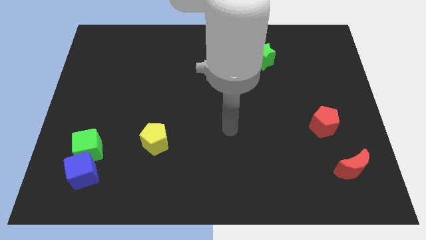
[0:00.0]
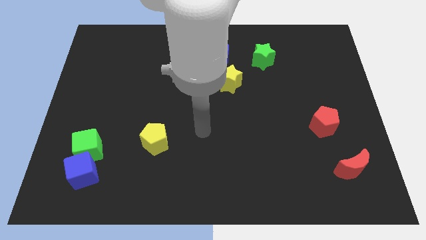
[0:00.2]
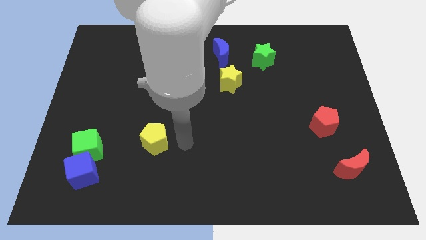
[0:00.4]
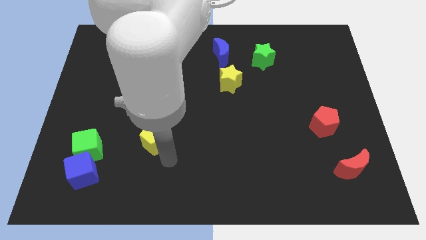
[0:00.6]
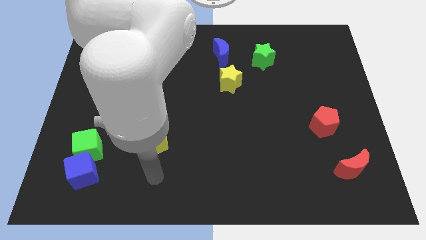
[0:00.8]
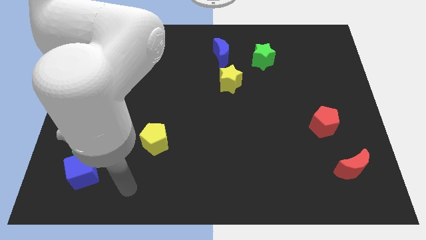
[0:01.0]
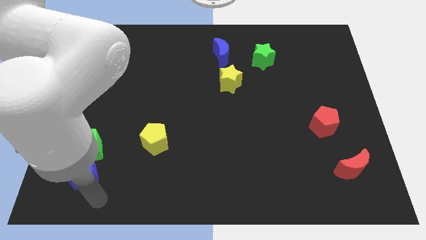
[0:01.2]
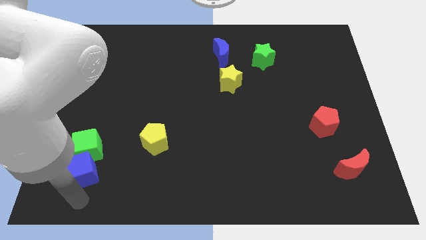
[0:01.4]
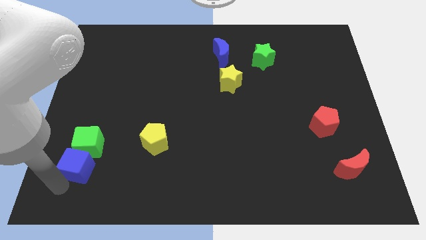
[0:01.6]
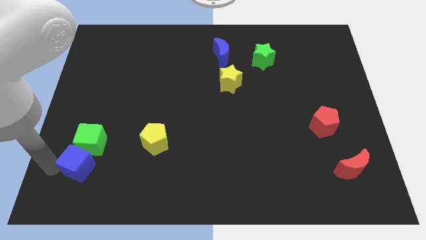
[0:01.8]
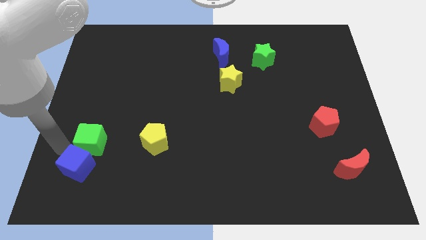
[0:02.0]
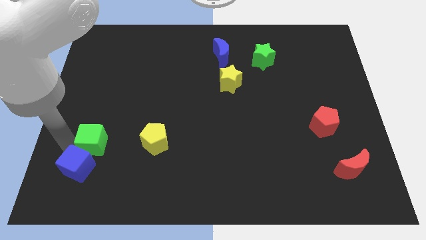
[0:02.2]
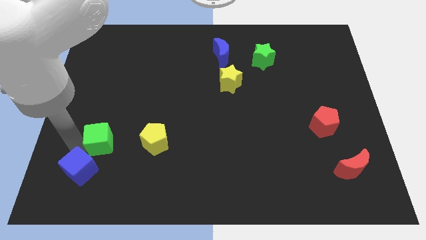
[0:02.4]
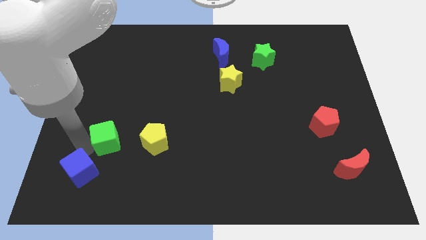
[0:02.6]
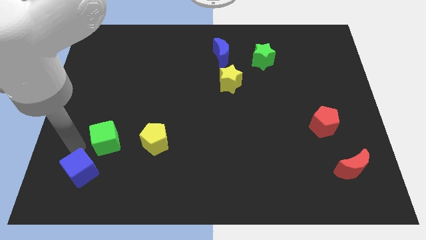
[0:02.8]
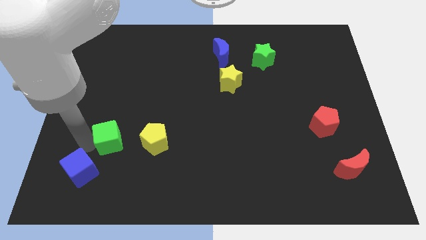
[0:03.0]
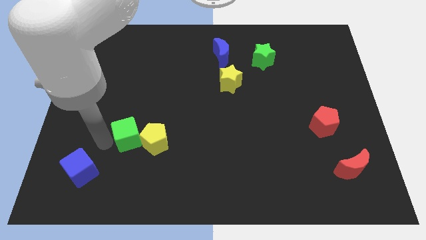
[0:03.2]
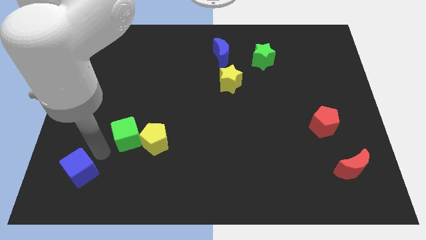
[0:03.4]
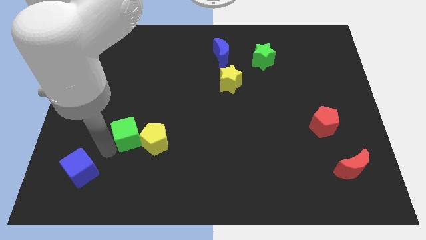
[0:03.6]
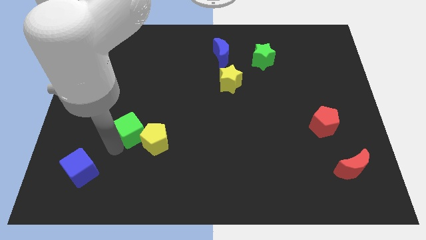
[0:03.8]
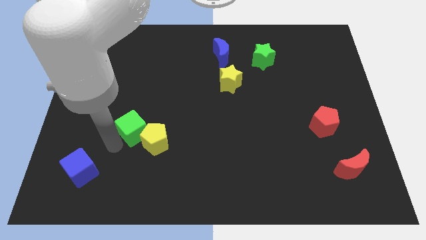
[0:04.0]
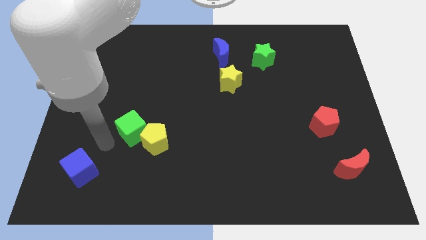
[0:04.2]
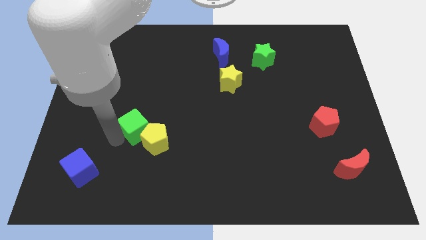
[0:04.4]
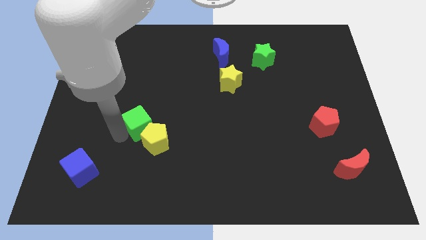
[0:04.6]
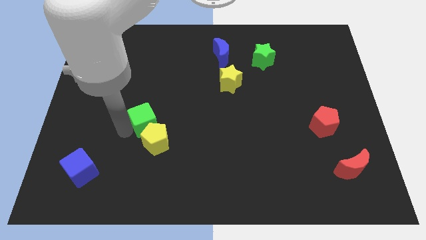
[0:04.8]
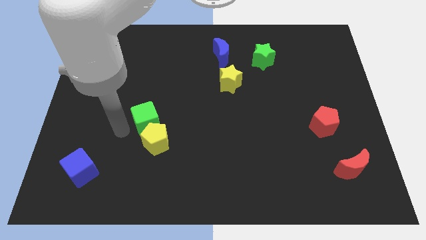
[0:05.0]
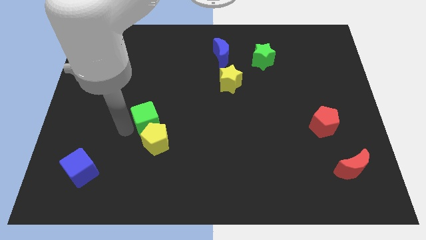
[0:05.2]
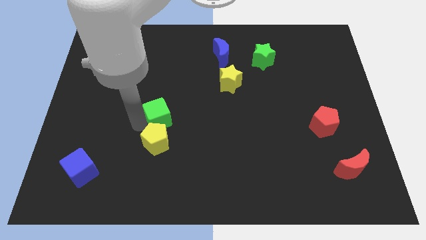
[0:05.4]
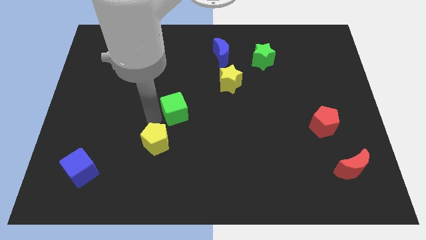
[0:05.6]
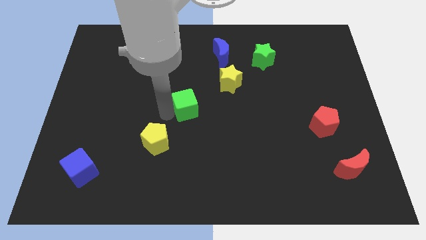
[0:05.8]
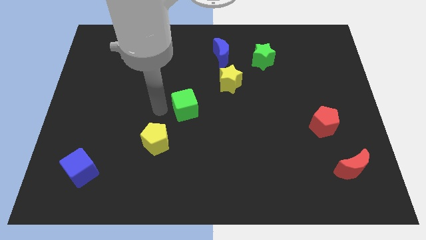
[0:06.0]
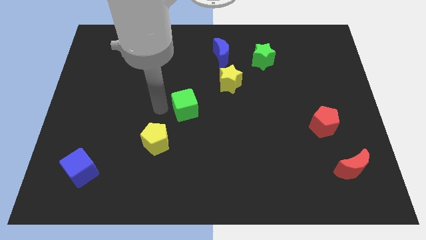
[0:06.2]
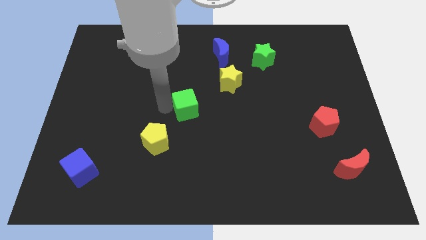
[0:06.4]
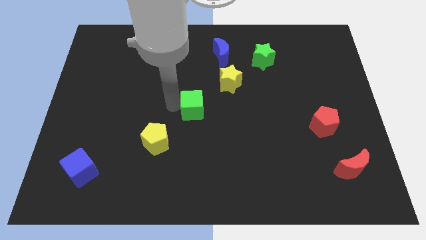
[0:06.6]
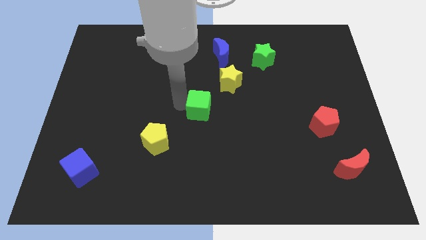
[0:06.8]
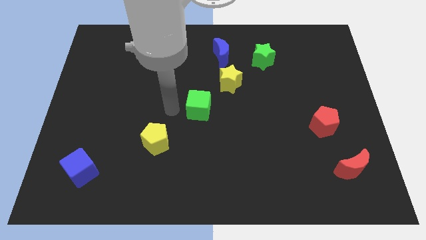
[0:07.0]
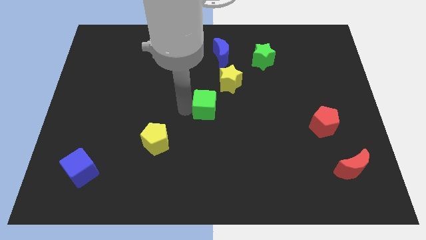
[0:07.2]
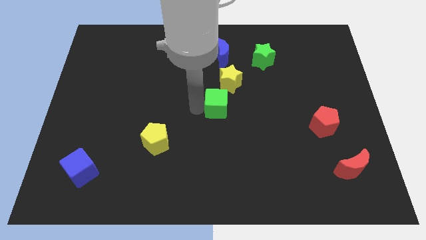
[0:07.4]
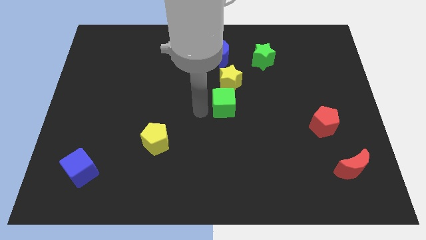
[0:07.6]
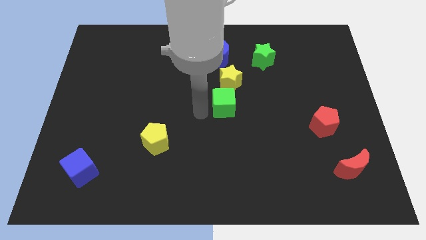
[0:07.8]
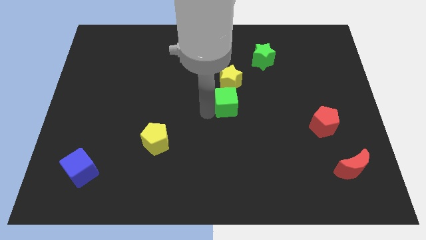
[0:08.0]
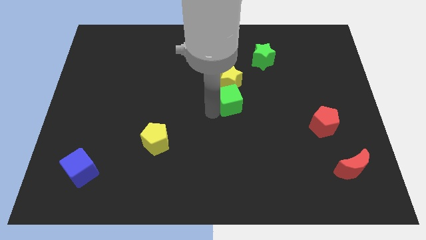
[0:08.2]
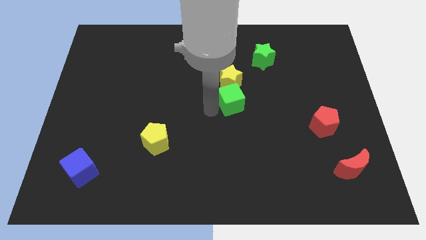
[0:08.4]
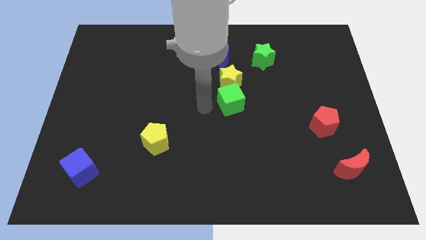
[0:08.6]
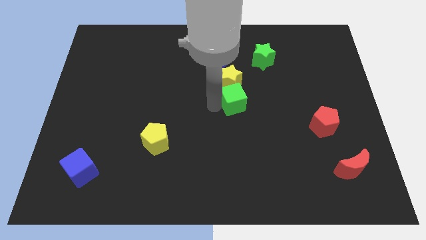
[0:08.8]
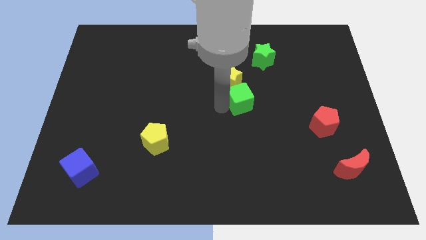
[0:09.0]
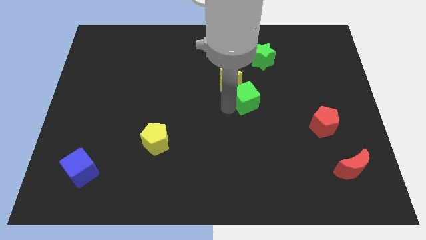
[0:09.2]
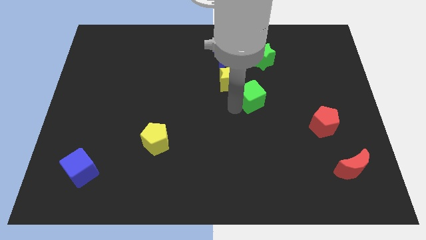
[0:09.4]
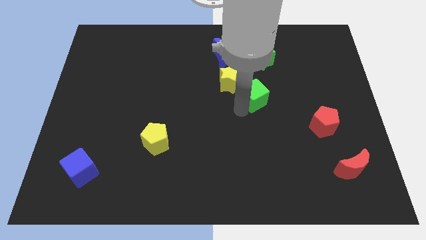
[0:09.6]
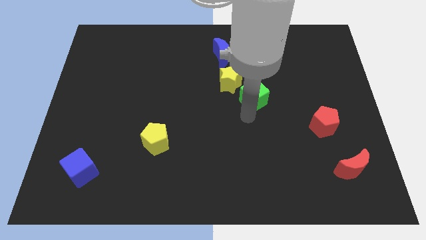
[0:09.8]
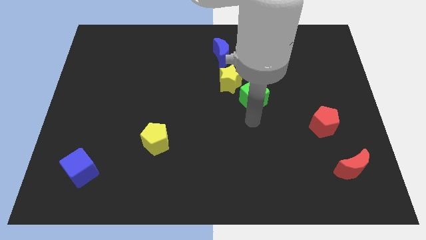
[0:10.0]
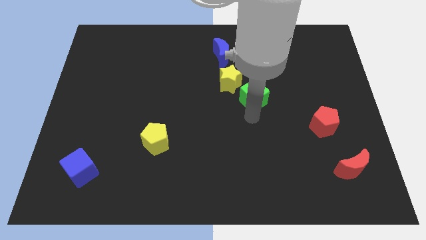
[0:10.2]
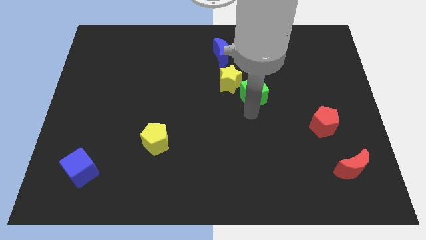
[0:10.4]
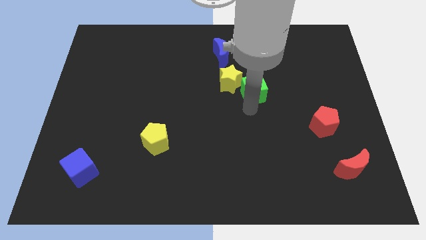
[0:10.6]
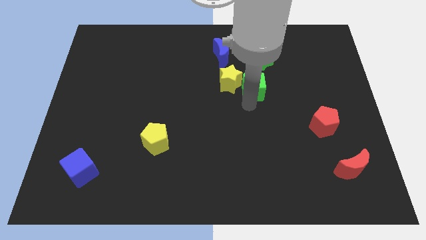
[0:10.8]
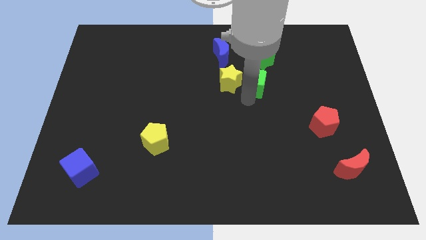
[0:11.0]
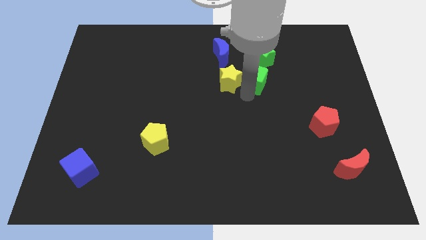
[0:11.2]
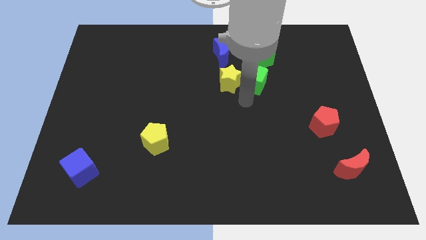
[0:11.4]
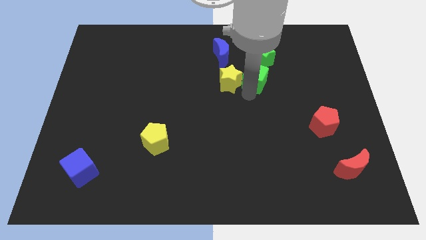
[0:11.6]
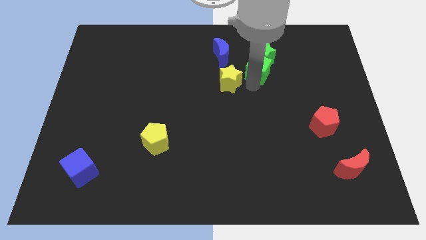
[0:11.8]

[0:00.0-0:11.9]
push the green cube towards the green star

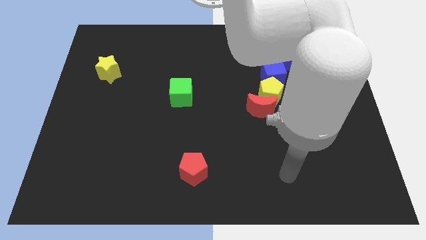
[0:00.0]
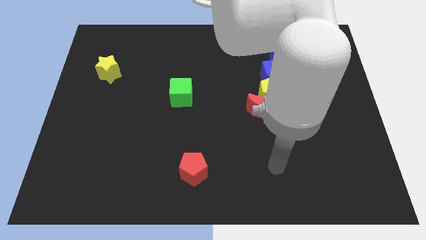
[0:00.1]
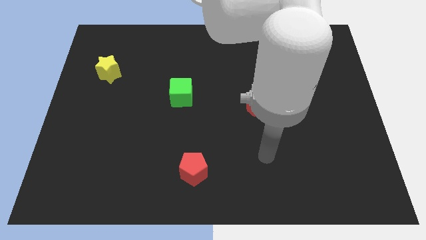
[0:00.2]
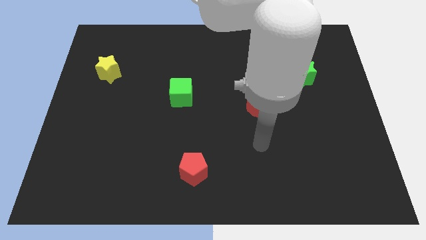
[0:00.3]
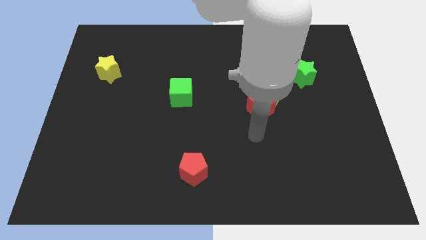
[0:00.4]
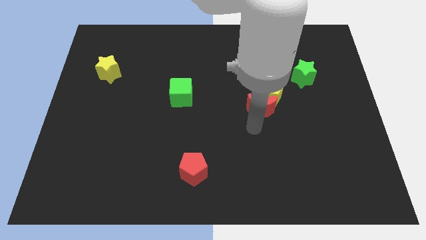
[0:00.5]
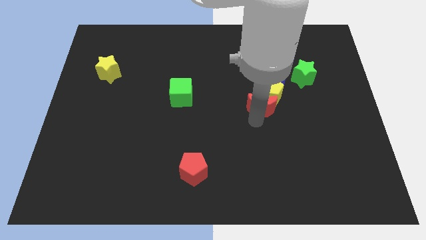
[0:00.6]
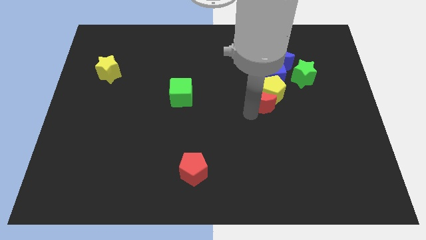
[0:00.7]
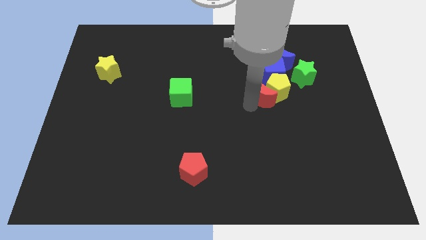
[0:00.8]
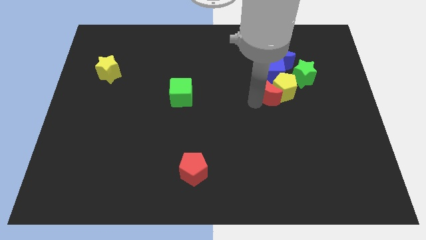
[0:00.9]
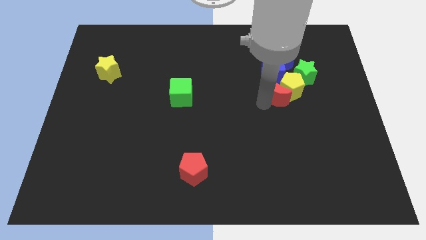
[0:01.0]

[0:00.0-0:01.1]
move the yellow pentagon to the green star

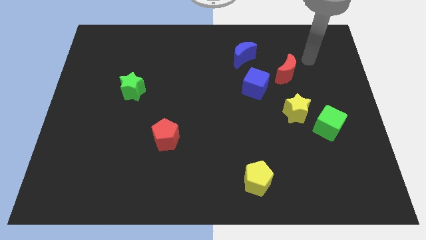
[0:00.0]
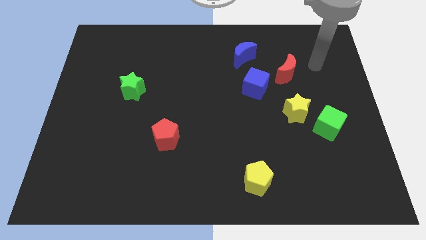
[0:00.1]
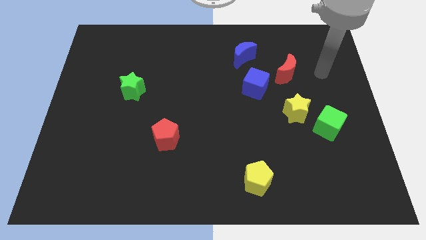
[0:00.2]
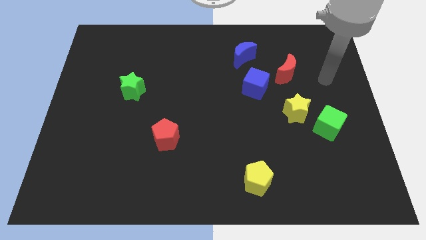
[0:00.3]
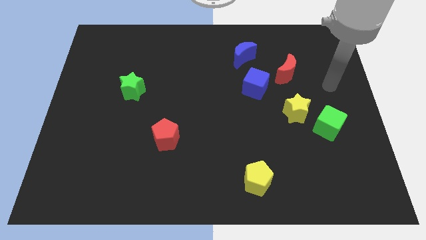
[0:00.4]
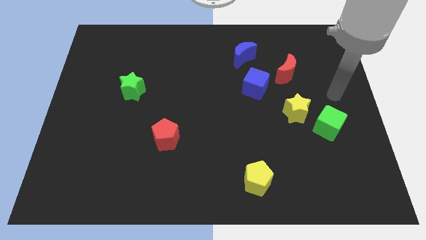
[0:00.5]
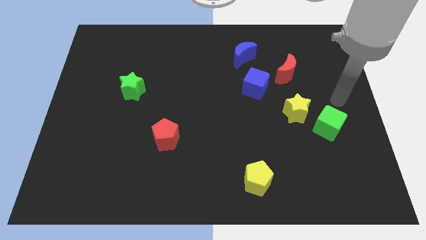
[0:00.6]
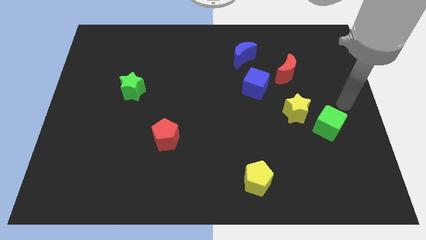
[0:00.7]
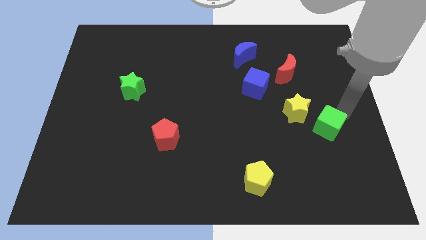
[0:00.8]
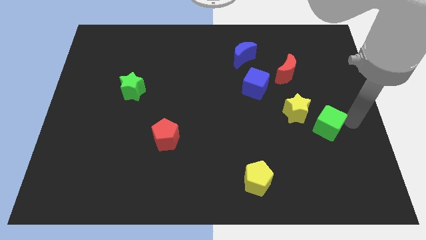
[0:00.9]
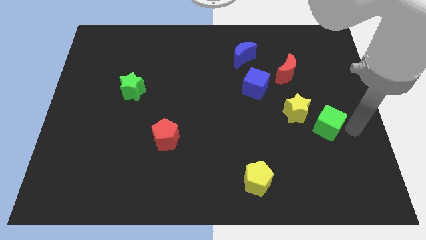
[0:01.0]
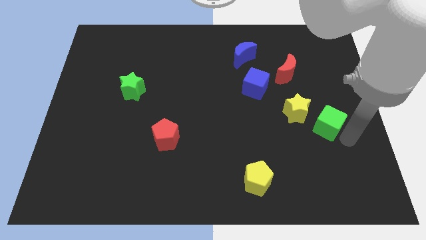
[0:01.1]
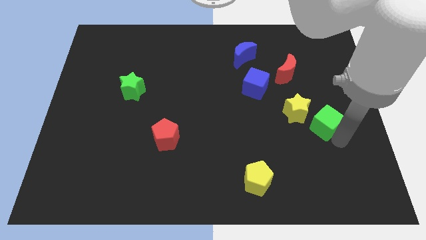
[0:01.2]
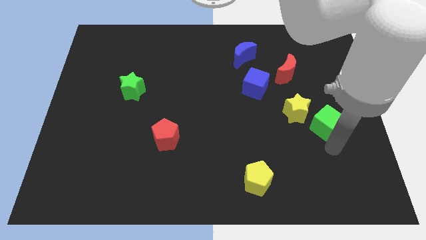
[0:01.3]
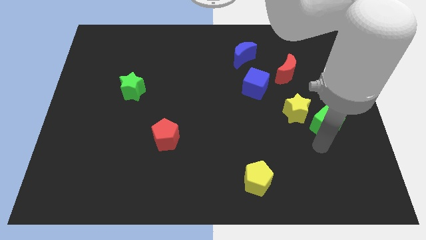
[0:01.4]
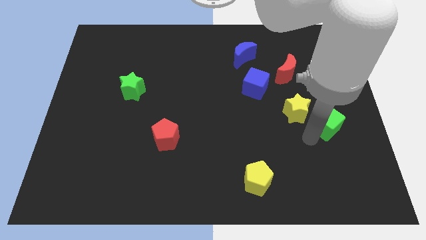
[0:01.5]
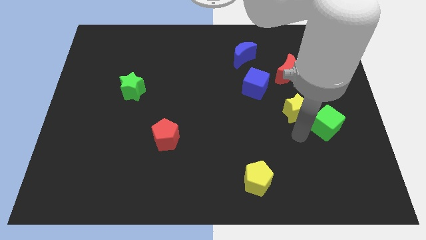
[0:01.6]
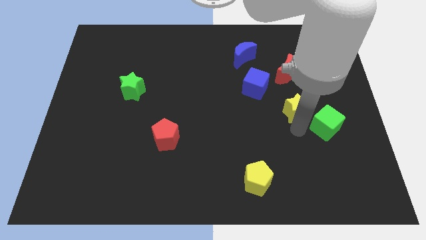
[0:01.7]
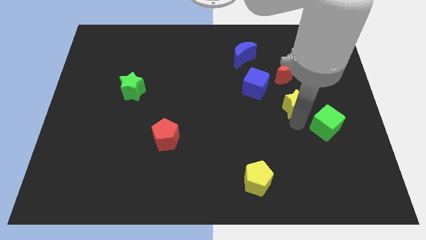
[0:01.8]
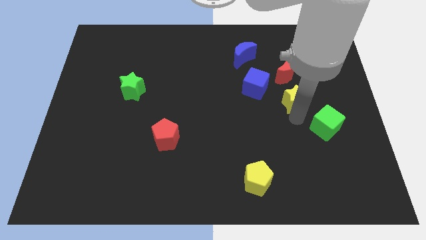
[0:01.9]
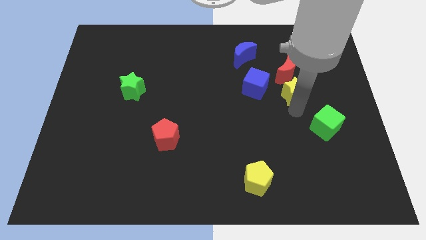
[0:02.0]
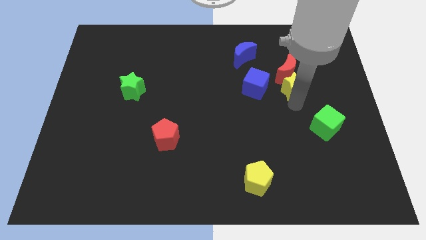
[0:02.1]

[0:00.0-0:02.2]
slide the yellow star close to the red moon
